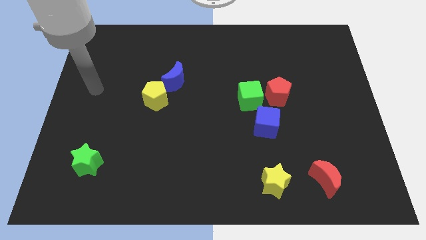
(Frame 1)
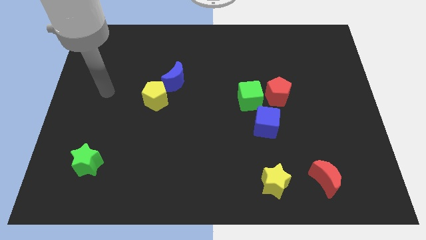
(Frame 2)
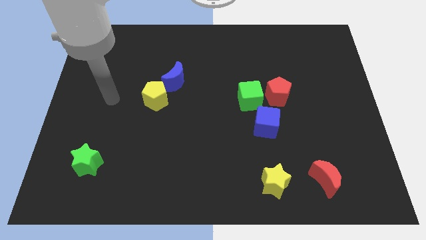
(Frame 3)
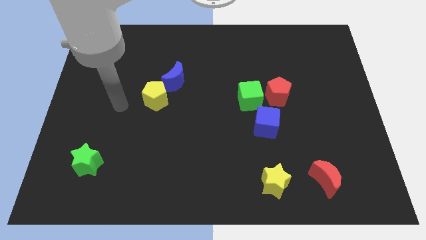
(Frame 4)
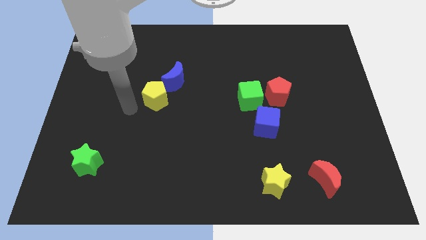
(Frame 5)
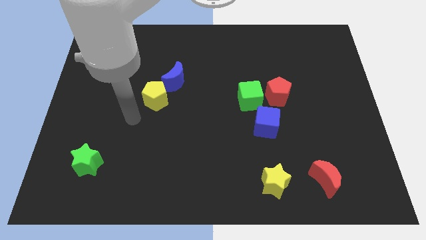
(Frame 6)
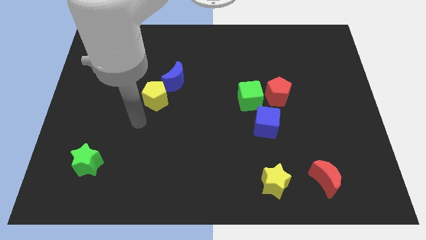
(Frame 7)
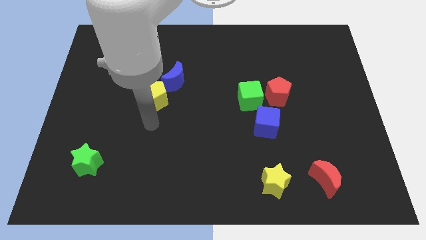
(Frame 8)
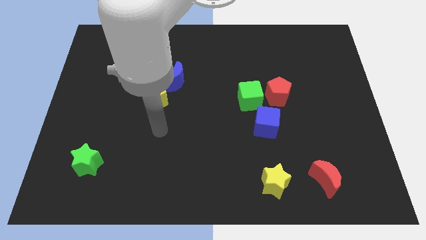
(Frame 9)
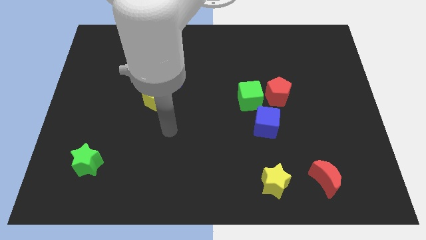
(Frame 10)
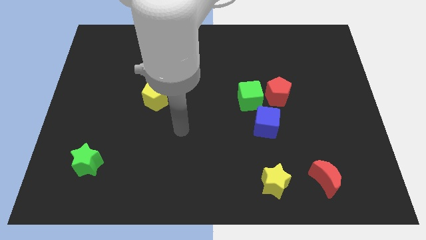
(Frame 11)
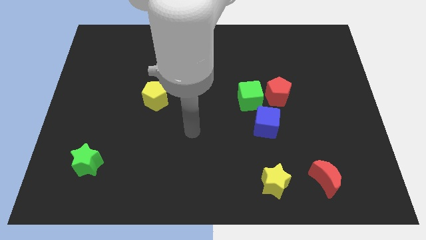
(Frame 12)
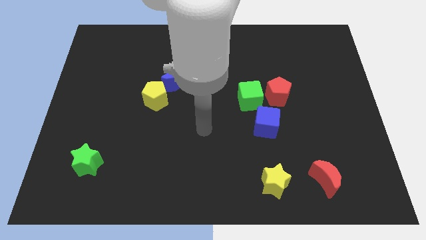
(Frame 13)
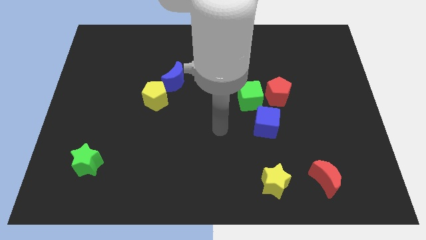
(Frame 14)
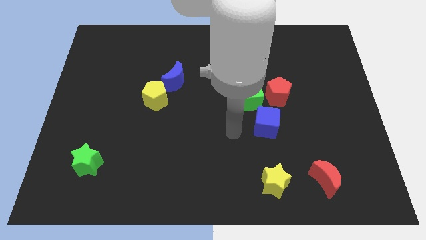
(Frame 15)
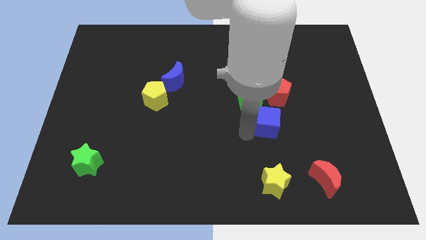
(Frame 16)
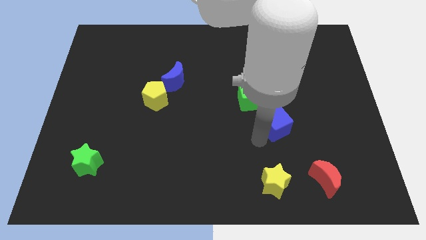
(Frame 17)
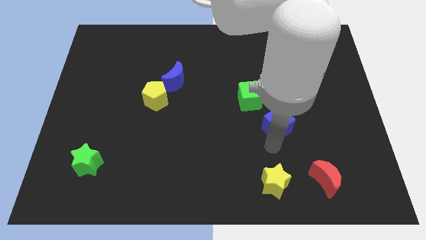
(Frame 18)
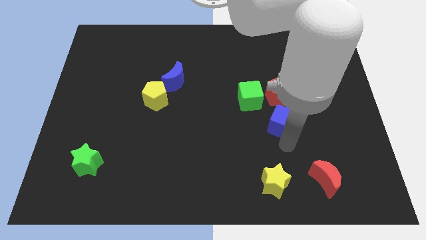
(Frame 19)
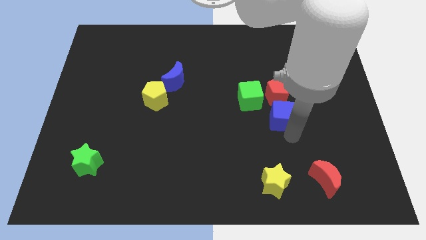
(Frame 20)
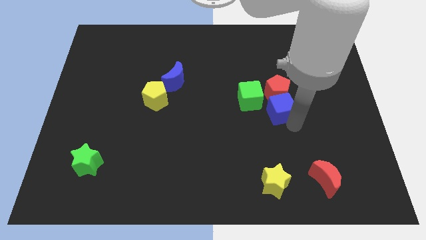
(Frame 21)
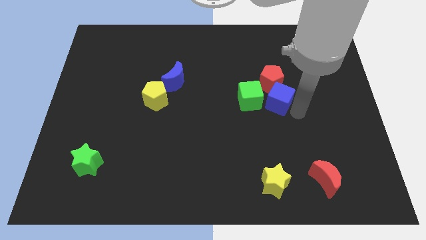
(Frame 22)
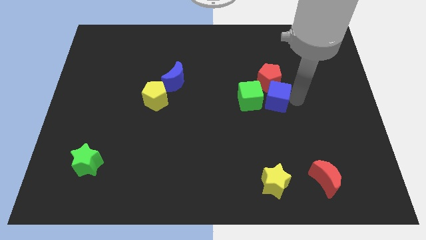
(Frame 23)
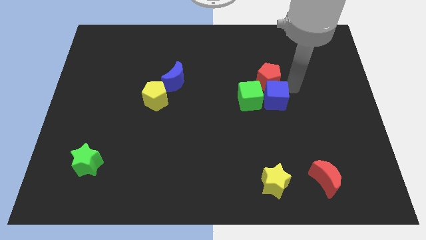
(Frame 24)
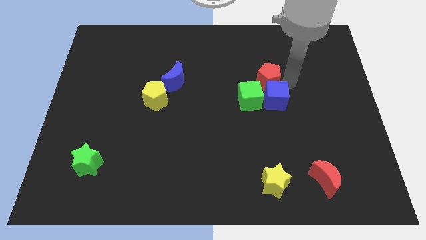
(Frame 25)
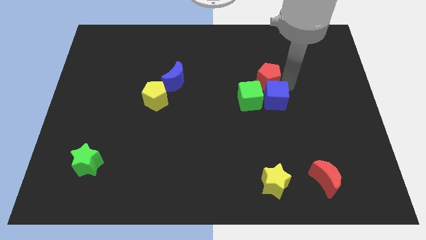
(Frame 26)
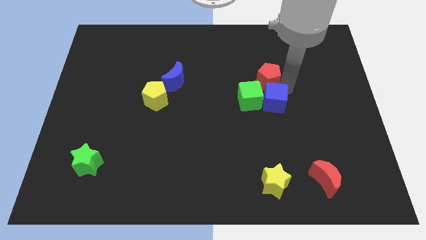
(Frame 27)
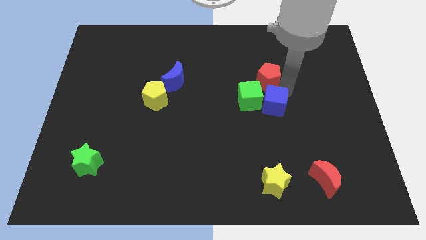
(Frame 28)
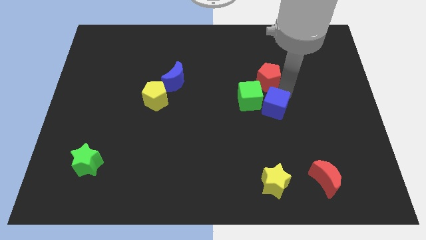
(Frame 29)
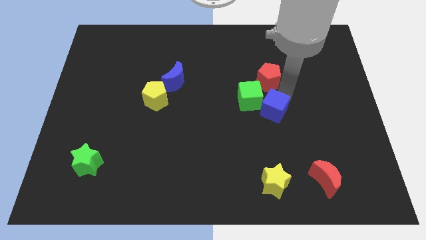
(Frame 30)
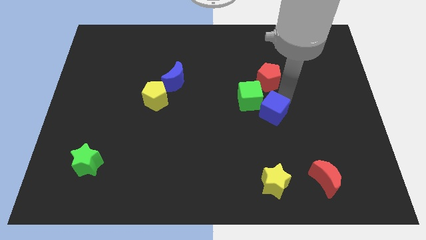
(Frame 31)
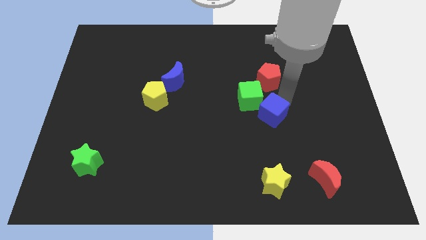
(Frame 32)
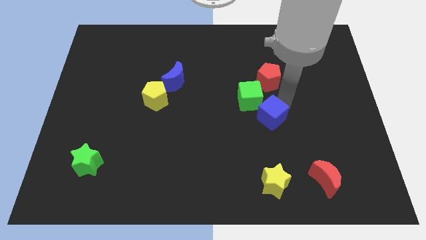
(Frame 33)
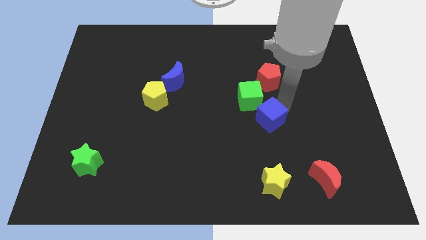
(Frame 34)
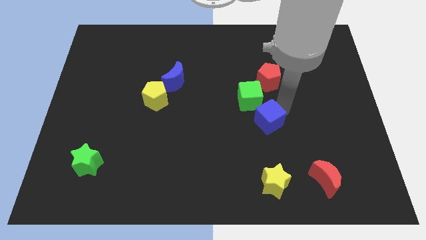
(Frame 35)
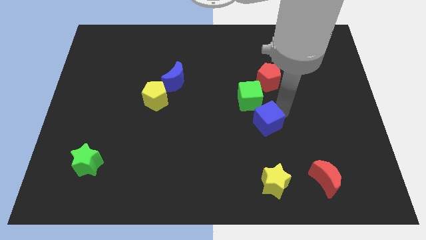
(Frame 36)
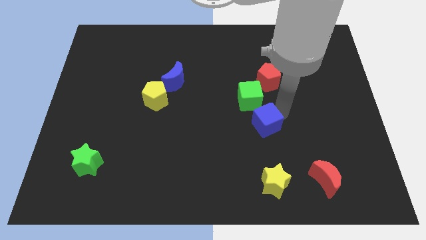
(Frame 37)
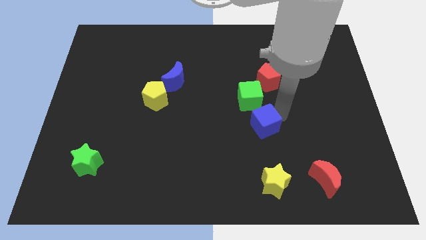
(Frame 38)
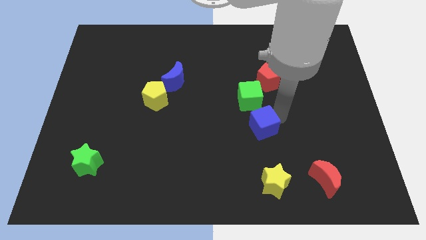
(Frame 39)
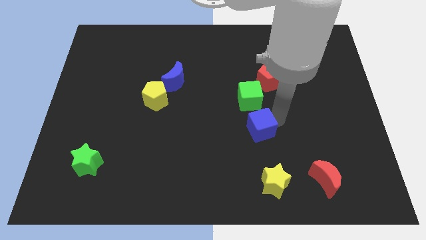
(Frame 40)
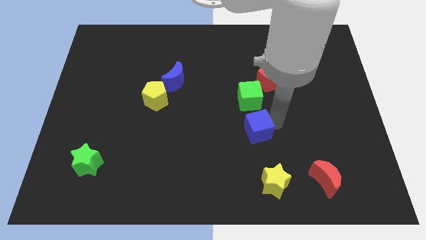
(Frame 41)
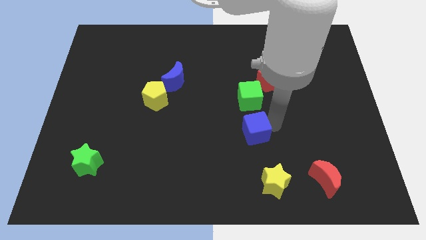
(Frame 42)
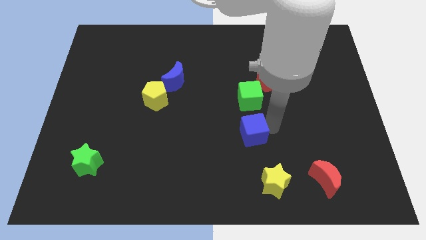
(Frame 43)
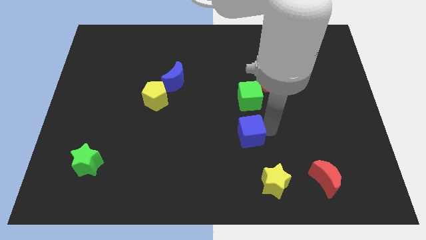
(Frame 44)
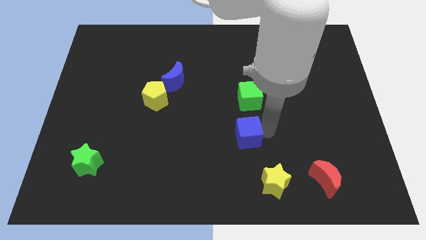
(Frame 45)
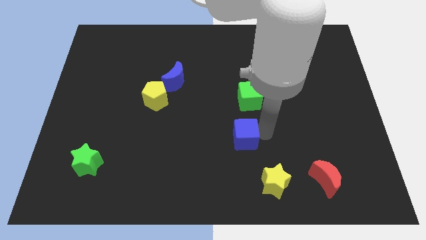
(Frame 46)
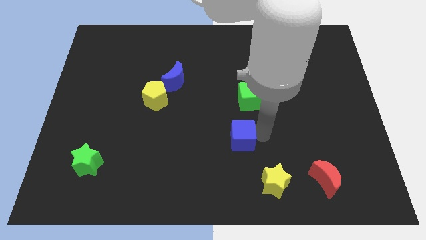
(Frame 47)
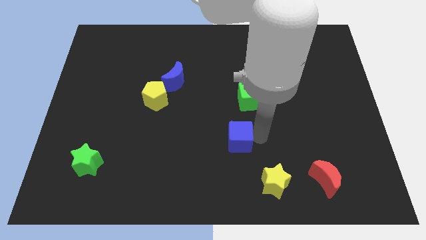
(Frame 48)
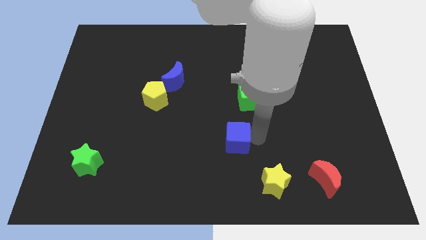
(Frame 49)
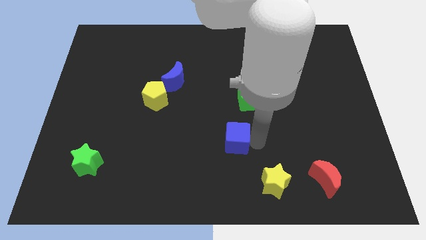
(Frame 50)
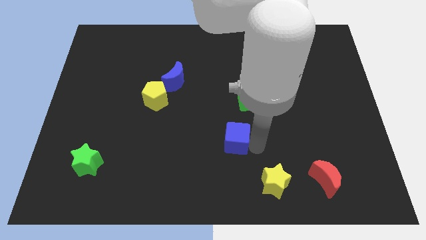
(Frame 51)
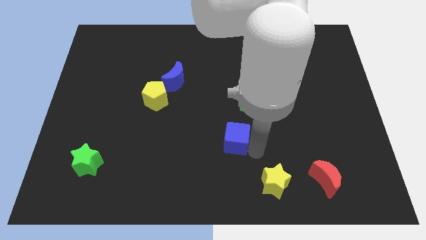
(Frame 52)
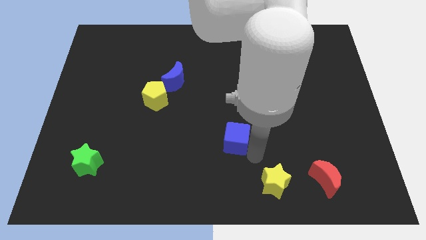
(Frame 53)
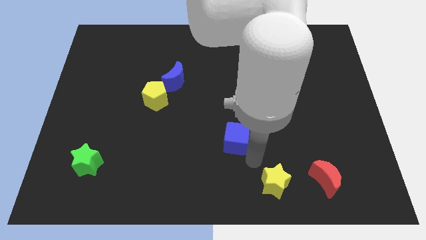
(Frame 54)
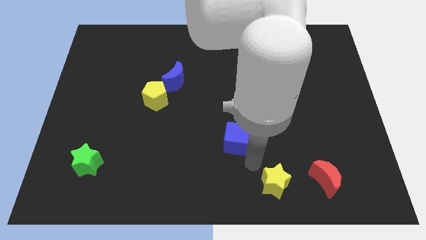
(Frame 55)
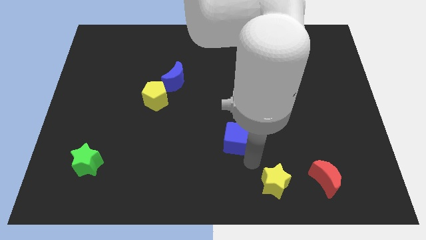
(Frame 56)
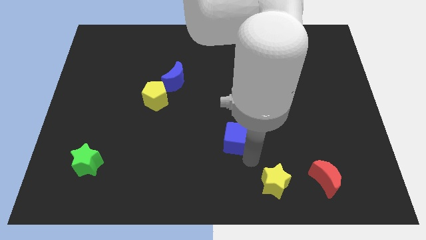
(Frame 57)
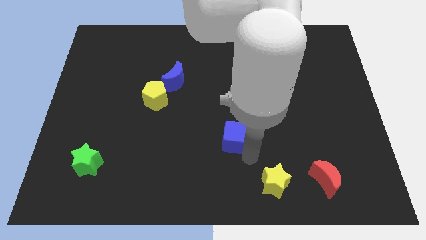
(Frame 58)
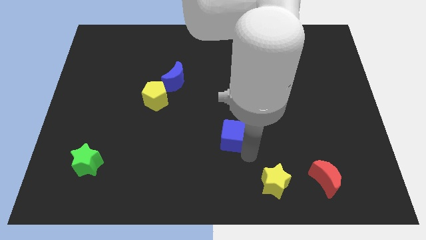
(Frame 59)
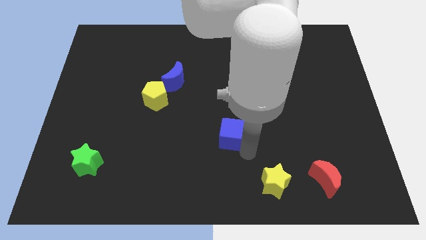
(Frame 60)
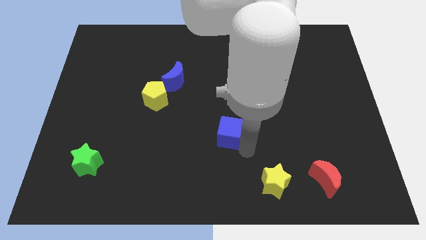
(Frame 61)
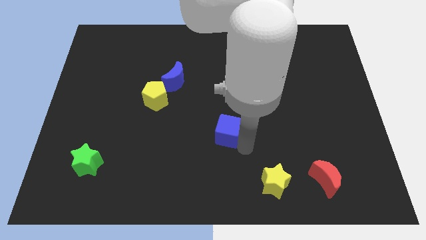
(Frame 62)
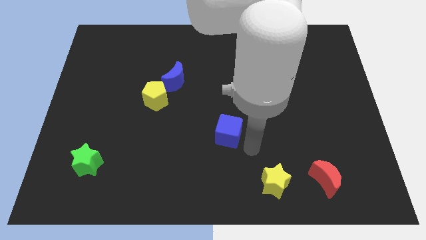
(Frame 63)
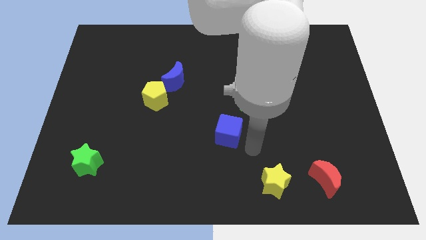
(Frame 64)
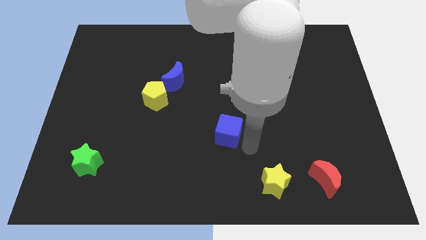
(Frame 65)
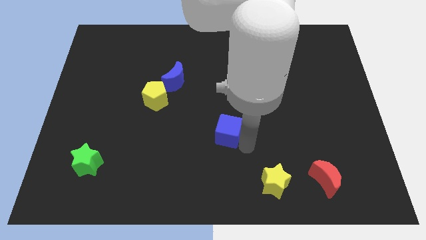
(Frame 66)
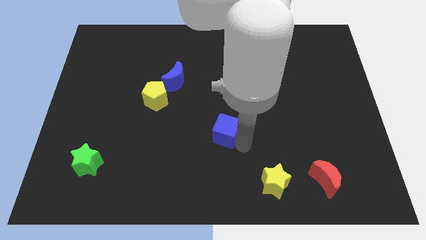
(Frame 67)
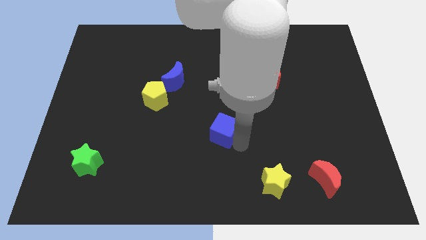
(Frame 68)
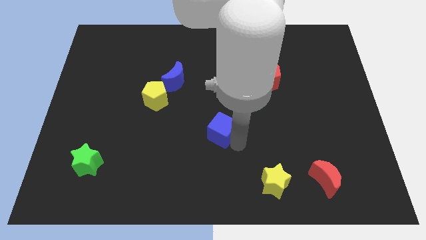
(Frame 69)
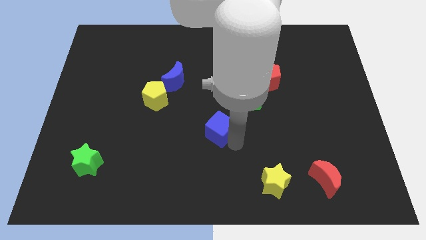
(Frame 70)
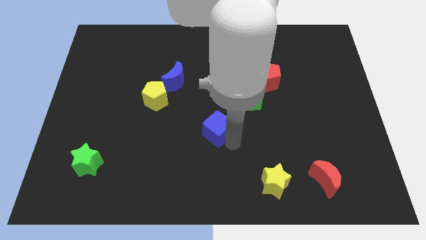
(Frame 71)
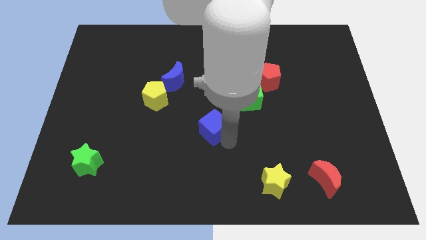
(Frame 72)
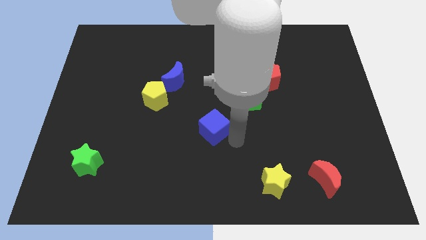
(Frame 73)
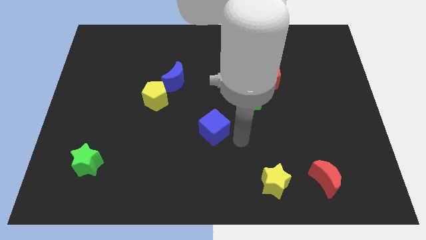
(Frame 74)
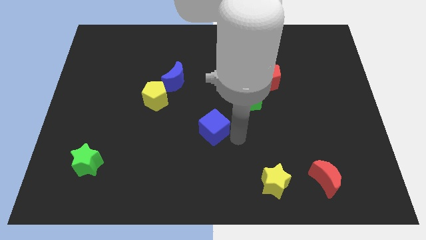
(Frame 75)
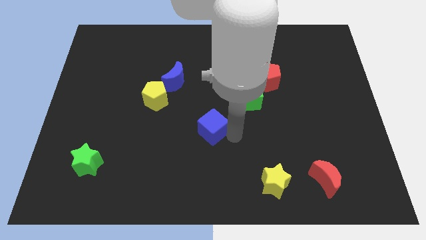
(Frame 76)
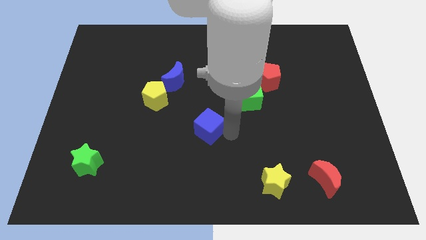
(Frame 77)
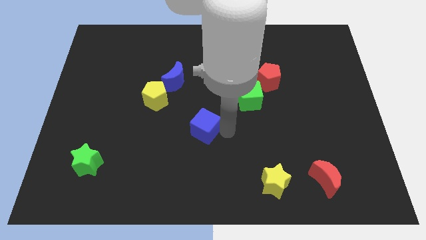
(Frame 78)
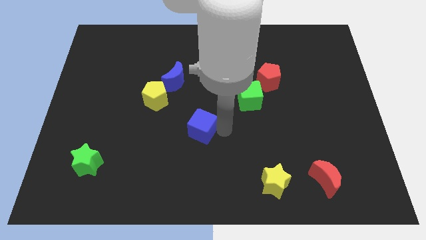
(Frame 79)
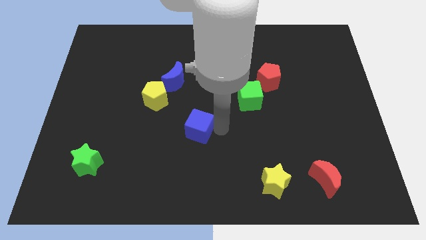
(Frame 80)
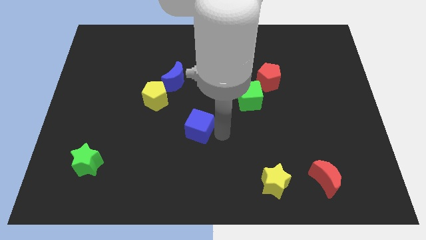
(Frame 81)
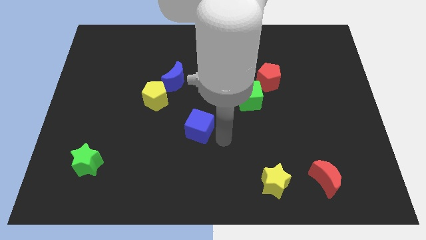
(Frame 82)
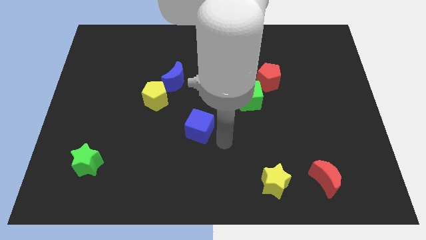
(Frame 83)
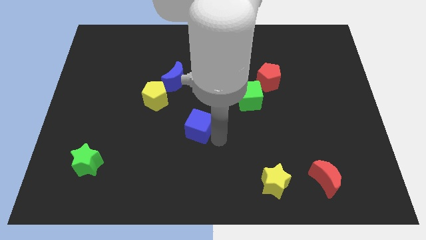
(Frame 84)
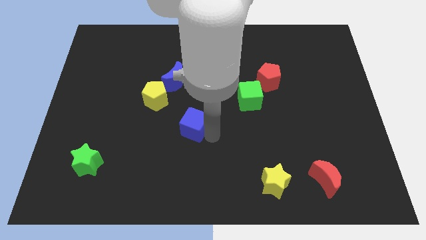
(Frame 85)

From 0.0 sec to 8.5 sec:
slide the blue cube to the bottom right of the yellow pentagon
